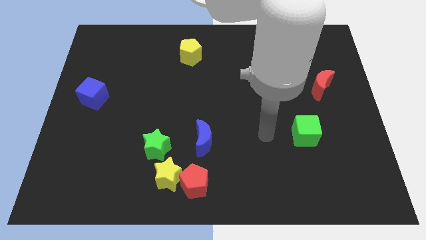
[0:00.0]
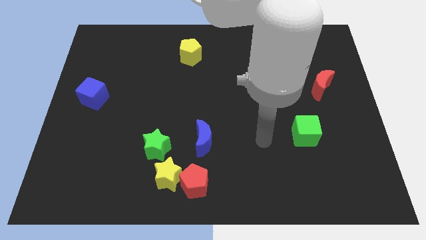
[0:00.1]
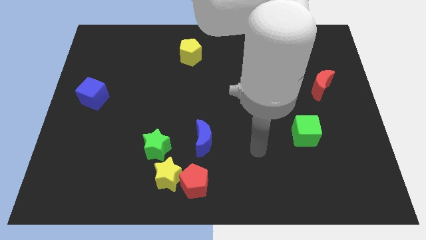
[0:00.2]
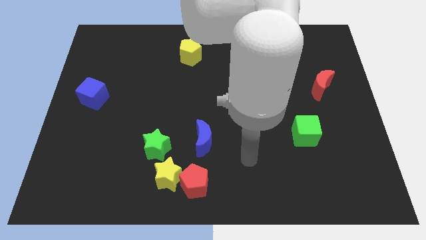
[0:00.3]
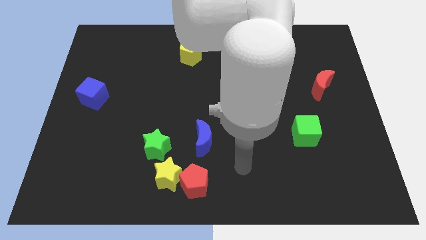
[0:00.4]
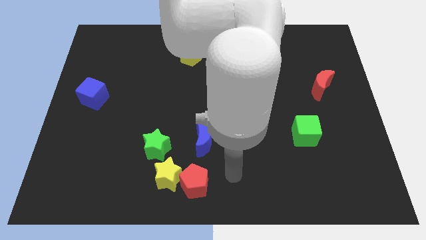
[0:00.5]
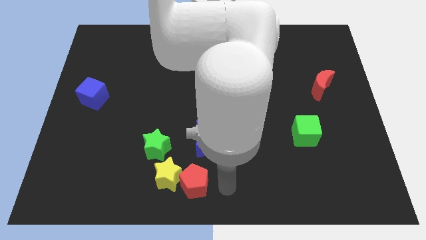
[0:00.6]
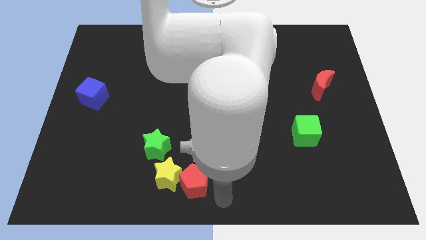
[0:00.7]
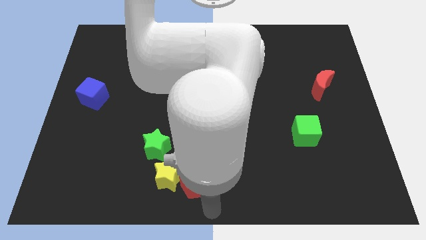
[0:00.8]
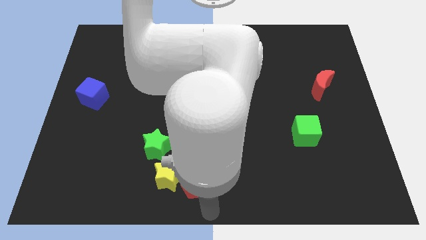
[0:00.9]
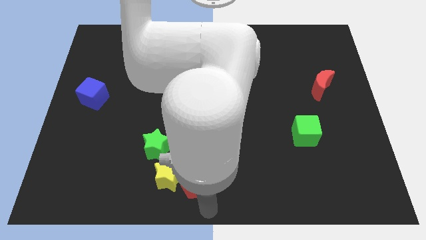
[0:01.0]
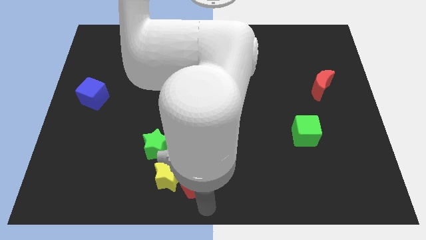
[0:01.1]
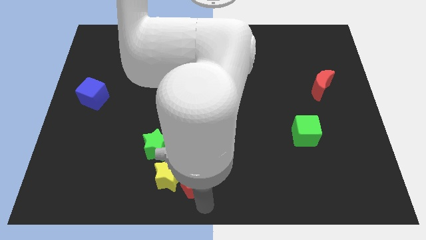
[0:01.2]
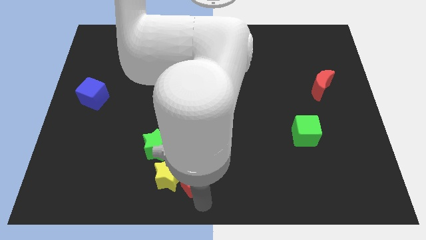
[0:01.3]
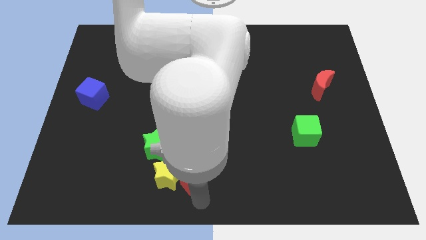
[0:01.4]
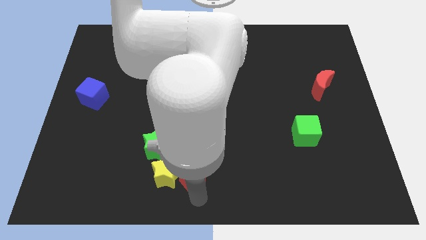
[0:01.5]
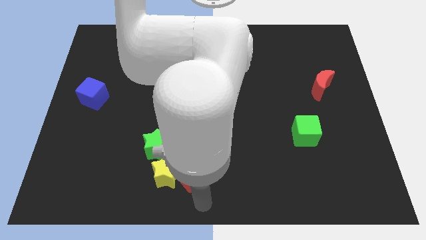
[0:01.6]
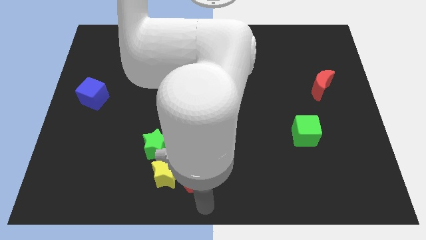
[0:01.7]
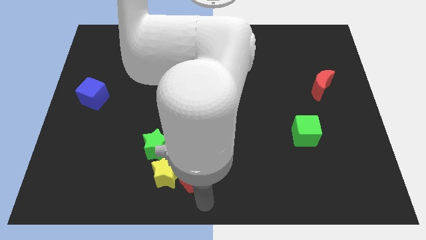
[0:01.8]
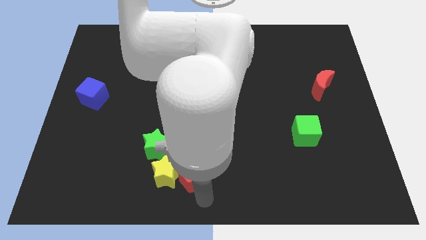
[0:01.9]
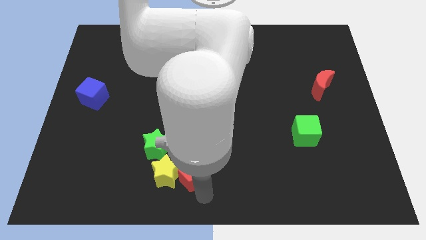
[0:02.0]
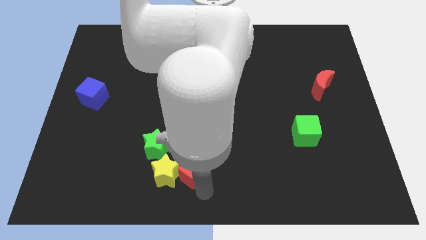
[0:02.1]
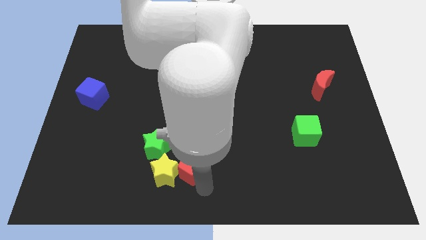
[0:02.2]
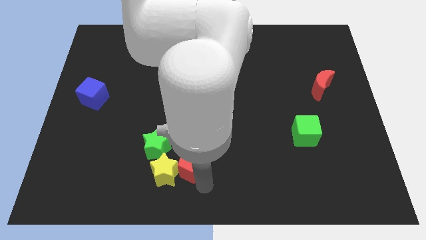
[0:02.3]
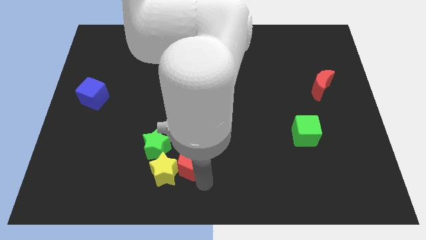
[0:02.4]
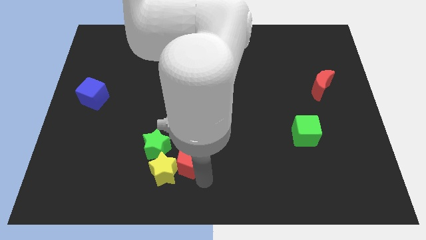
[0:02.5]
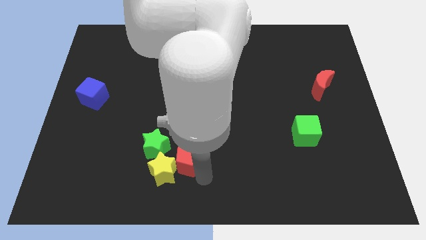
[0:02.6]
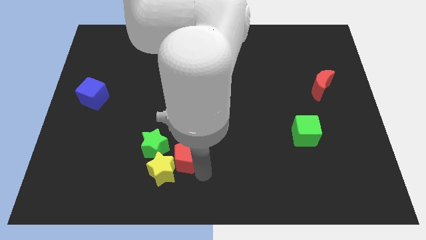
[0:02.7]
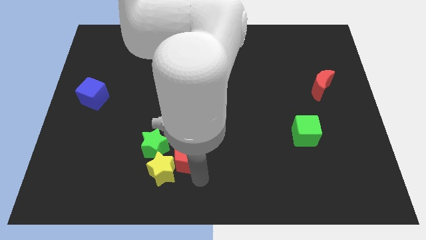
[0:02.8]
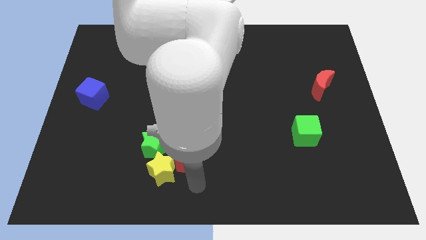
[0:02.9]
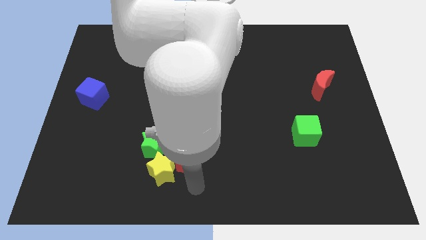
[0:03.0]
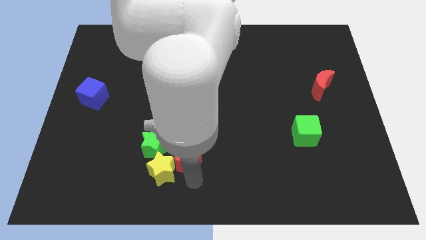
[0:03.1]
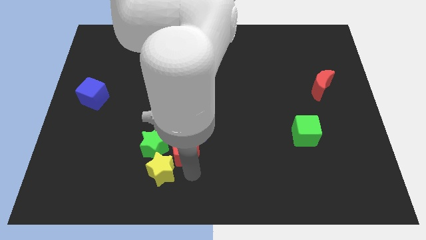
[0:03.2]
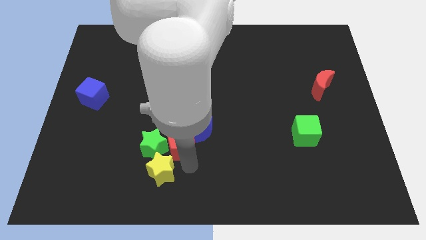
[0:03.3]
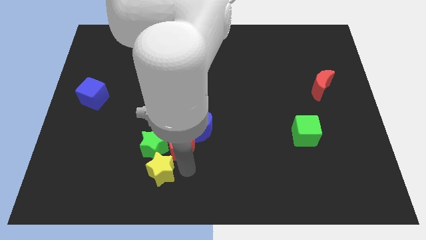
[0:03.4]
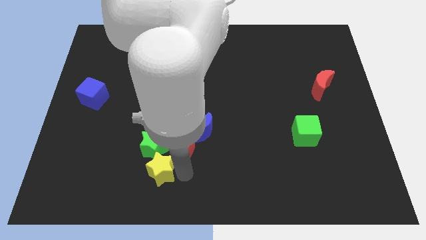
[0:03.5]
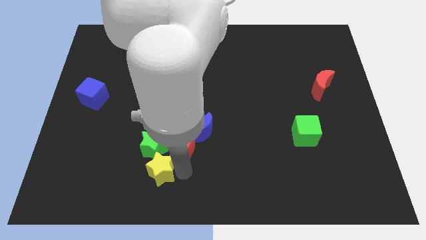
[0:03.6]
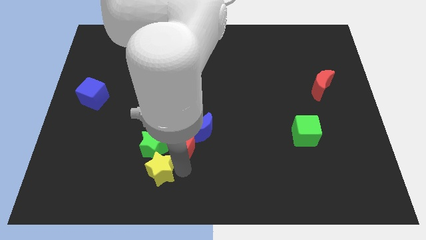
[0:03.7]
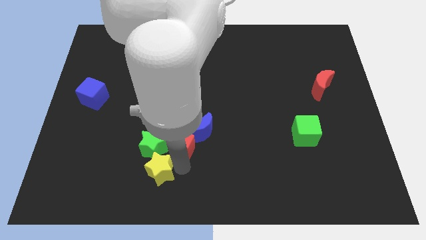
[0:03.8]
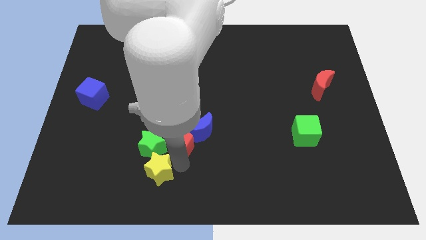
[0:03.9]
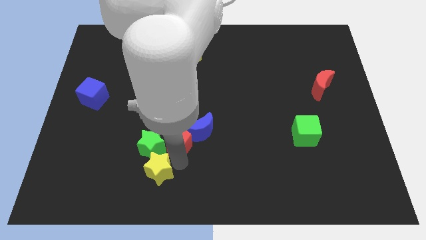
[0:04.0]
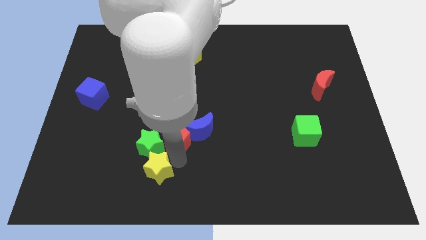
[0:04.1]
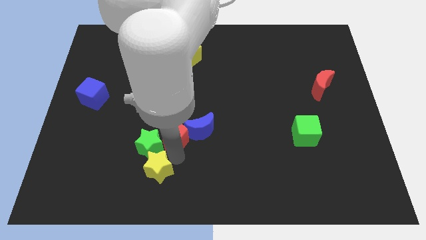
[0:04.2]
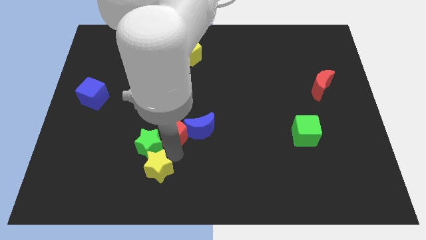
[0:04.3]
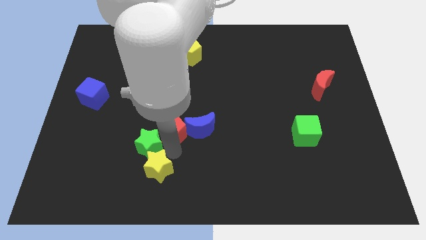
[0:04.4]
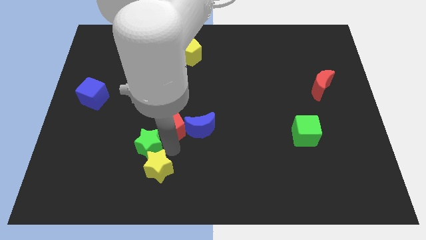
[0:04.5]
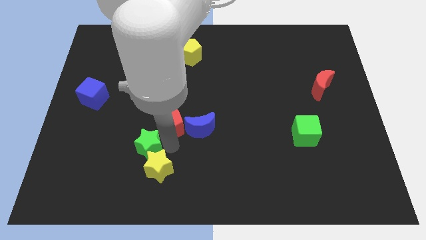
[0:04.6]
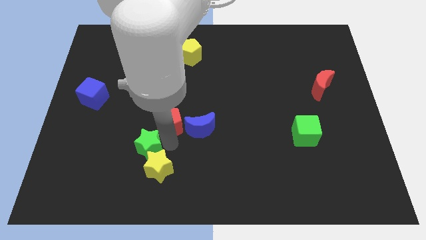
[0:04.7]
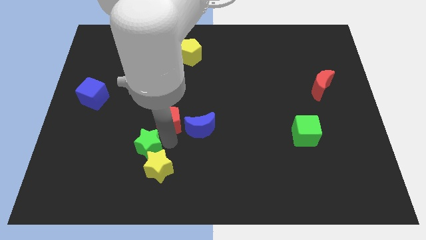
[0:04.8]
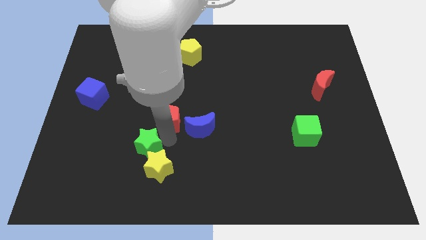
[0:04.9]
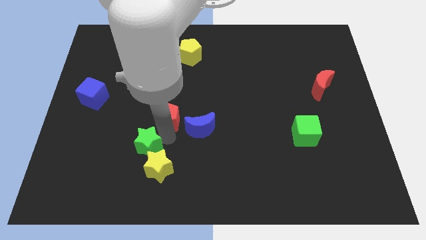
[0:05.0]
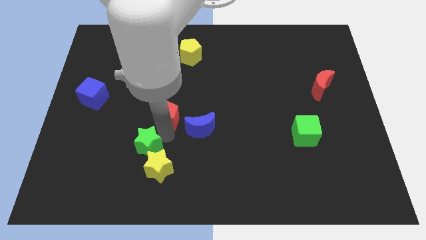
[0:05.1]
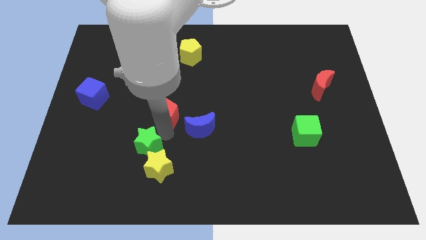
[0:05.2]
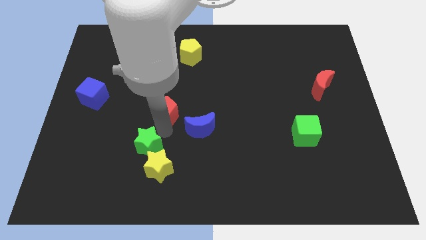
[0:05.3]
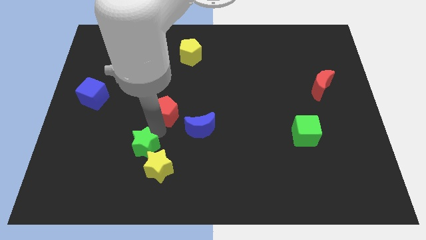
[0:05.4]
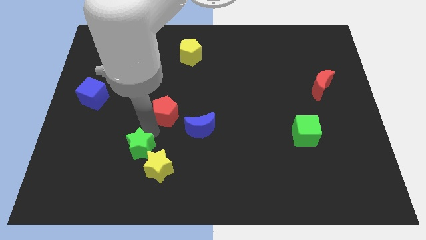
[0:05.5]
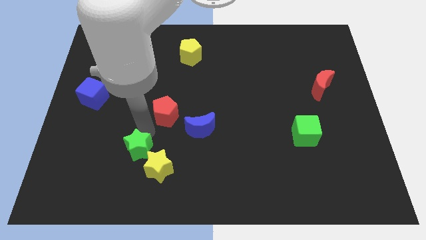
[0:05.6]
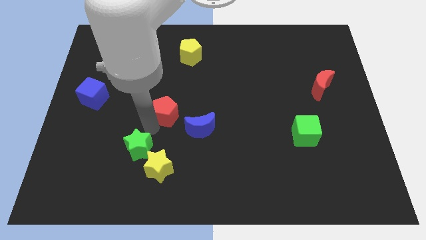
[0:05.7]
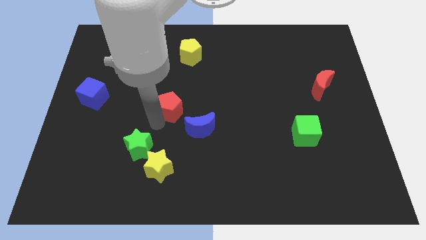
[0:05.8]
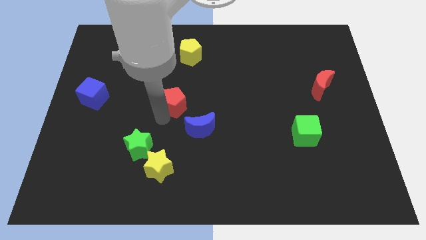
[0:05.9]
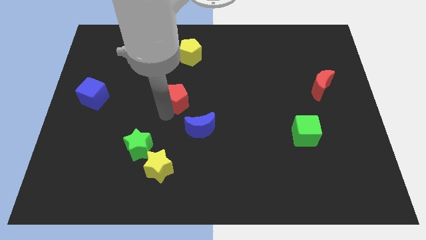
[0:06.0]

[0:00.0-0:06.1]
slide the red pentagon upwards

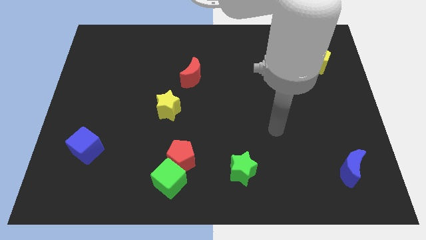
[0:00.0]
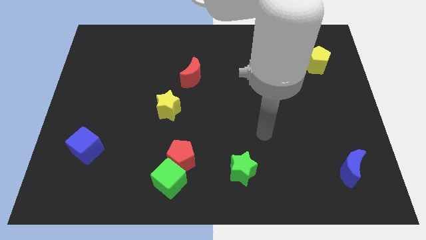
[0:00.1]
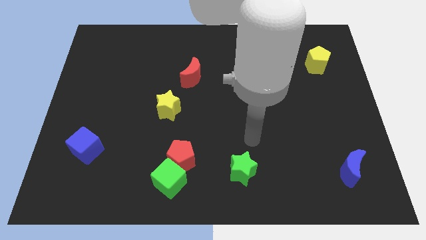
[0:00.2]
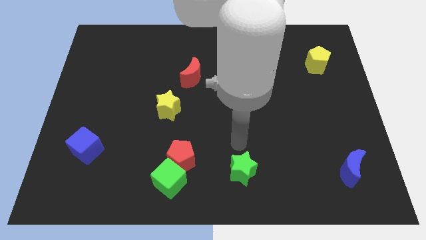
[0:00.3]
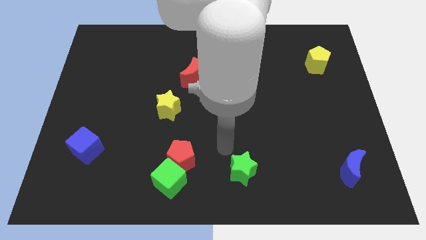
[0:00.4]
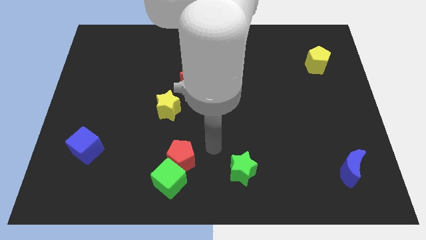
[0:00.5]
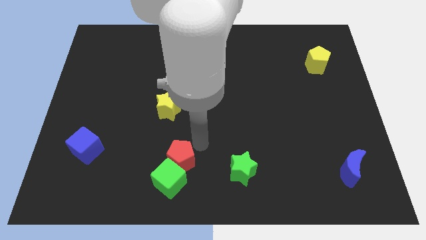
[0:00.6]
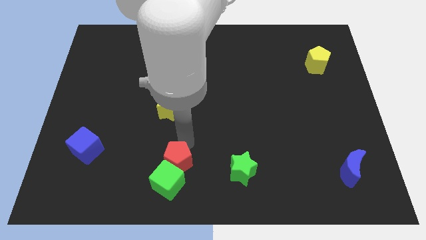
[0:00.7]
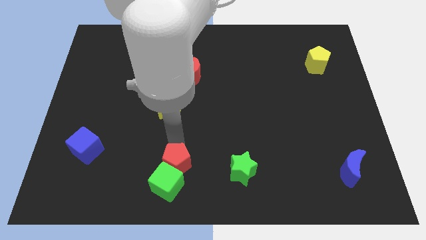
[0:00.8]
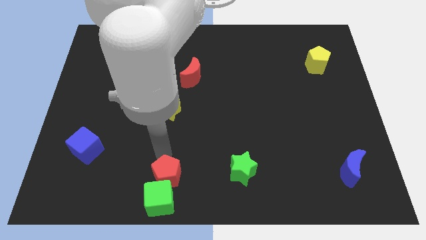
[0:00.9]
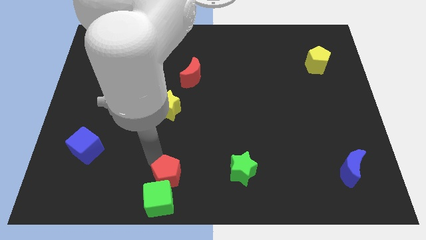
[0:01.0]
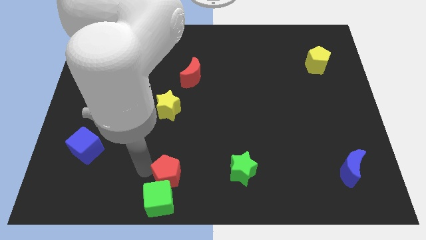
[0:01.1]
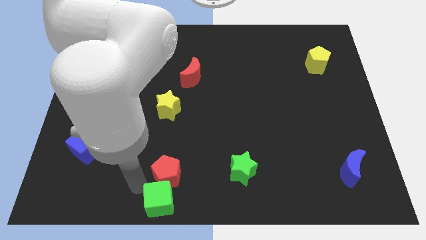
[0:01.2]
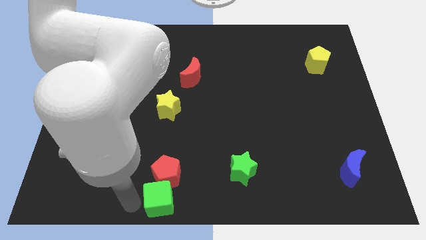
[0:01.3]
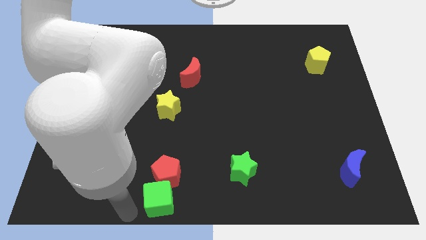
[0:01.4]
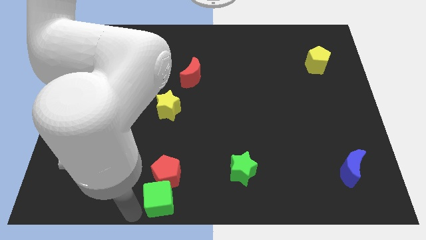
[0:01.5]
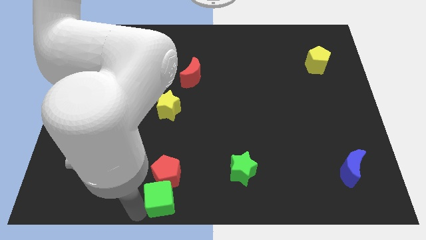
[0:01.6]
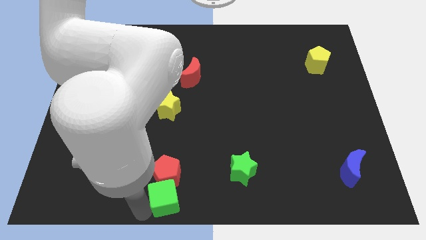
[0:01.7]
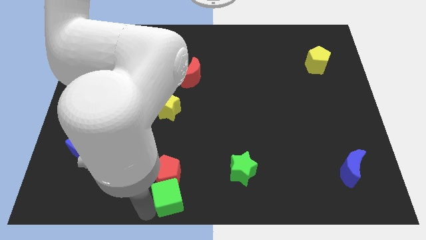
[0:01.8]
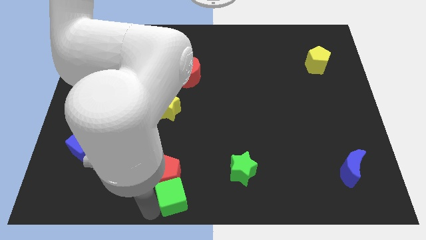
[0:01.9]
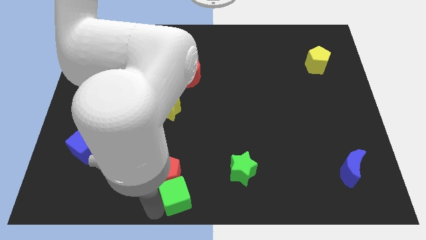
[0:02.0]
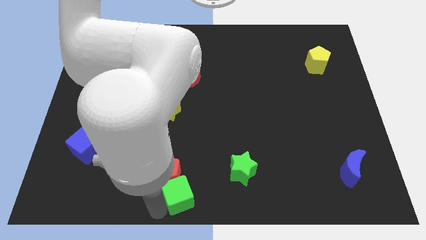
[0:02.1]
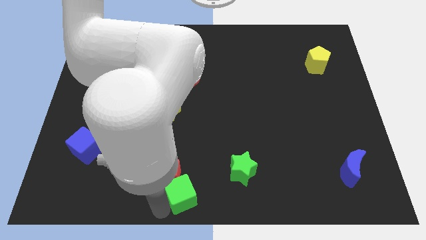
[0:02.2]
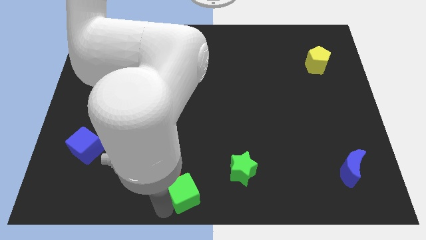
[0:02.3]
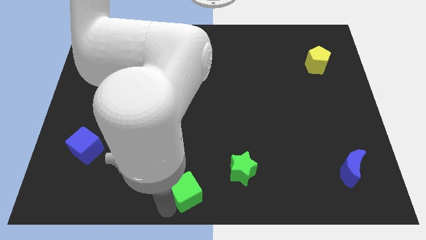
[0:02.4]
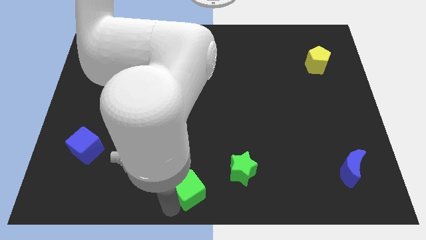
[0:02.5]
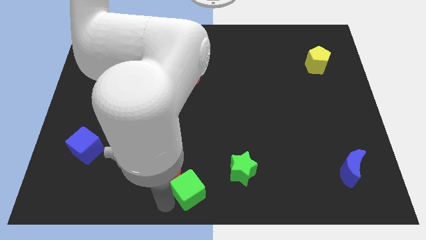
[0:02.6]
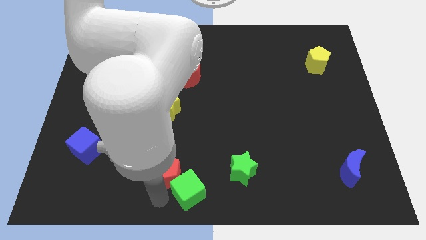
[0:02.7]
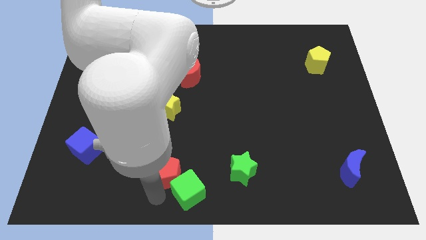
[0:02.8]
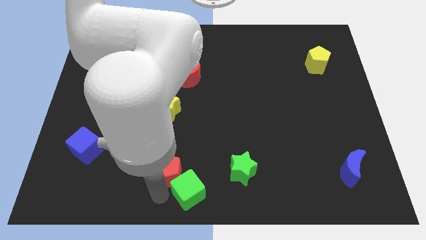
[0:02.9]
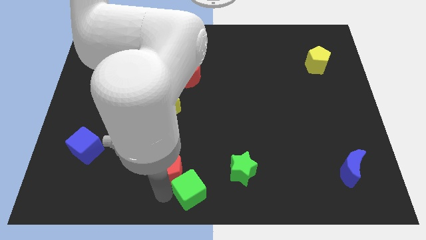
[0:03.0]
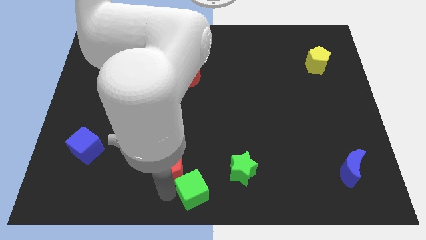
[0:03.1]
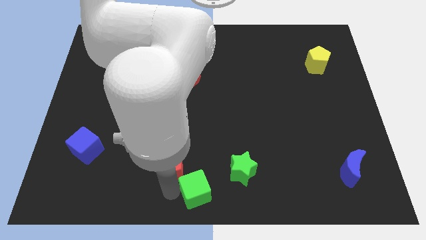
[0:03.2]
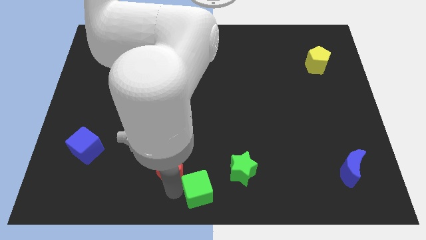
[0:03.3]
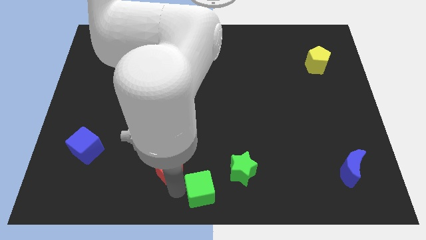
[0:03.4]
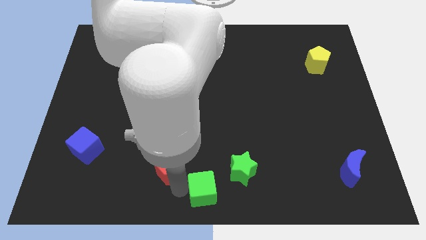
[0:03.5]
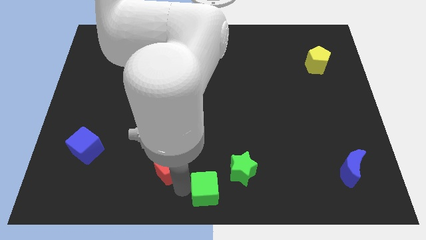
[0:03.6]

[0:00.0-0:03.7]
slightly slide the green cube right
